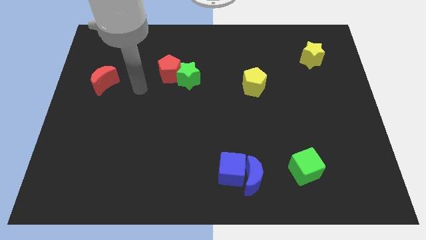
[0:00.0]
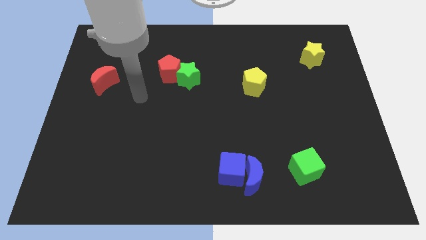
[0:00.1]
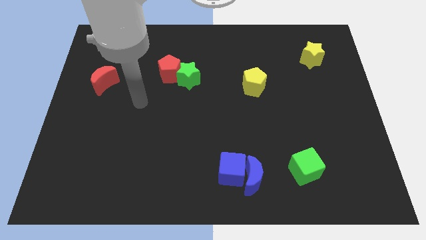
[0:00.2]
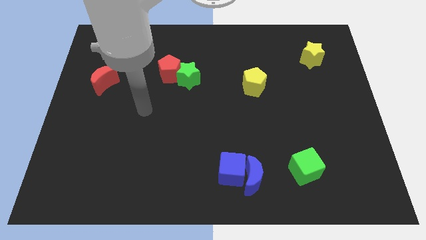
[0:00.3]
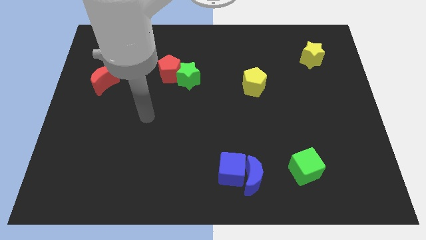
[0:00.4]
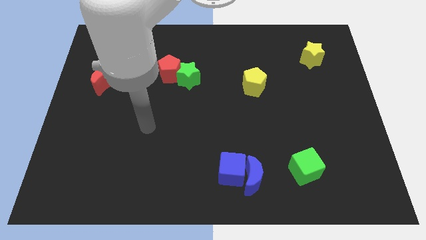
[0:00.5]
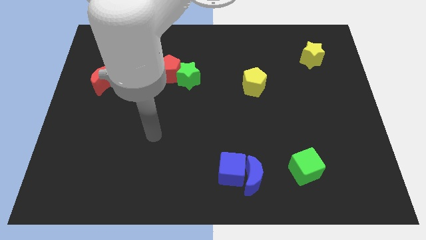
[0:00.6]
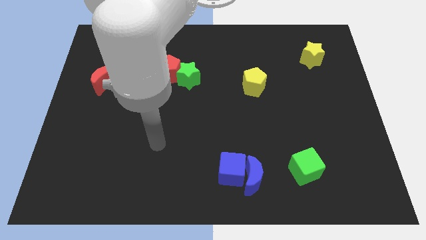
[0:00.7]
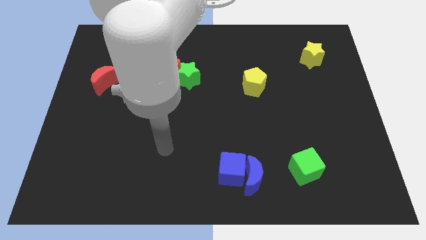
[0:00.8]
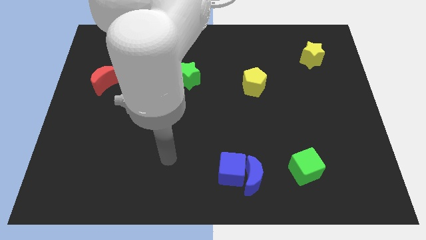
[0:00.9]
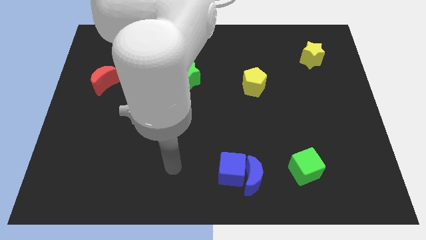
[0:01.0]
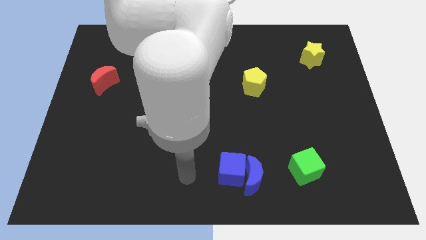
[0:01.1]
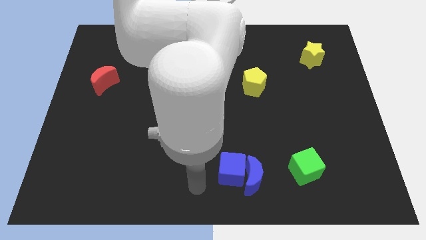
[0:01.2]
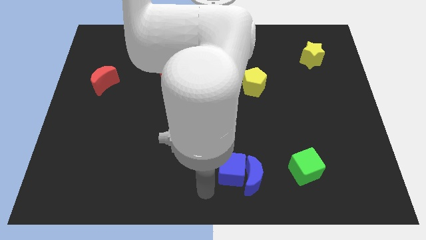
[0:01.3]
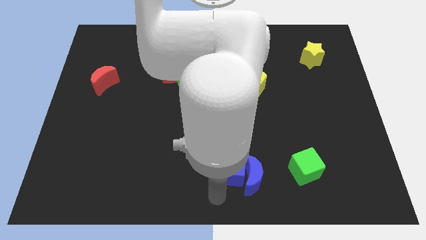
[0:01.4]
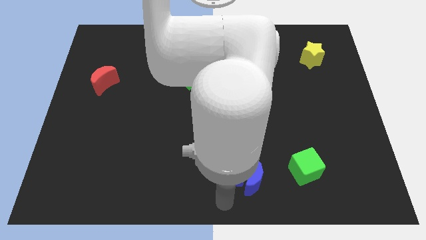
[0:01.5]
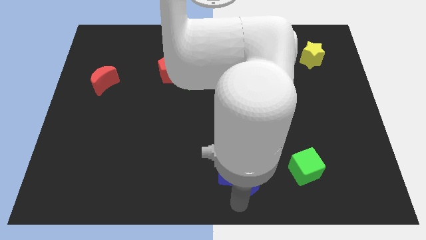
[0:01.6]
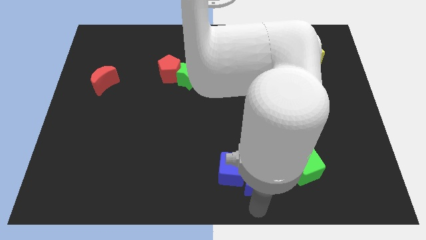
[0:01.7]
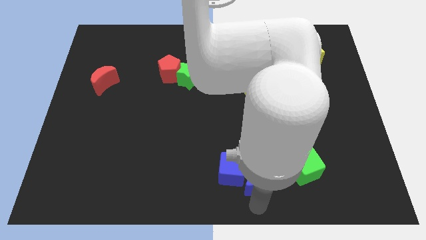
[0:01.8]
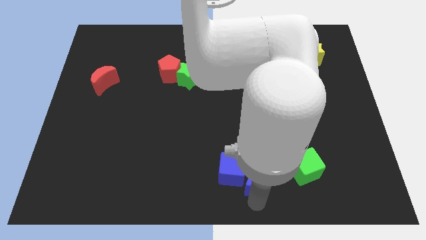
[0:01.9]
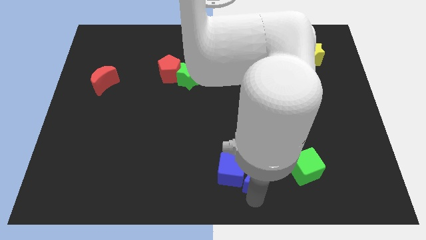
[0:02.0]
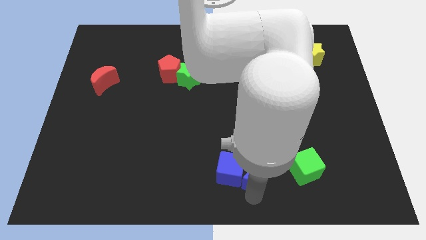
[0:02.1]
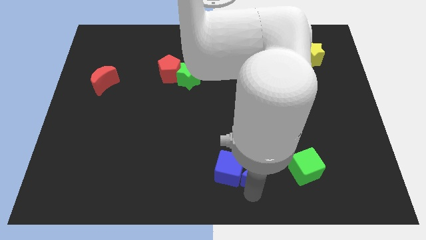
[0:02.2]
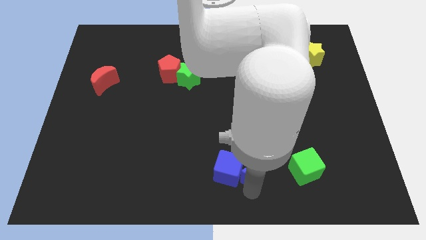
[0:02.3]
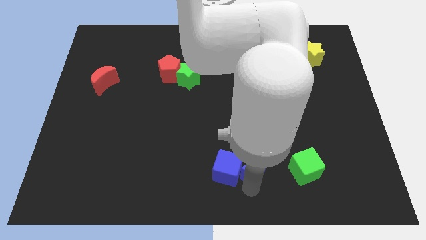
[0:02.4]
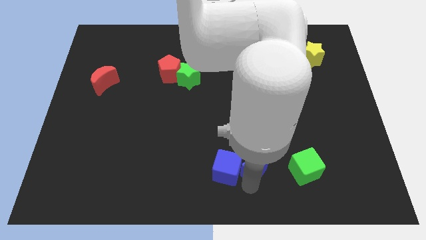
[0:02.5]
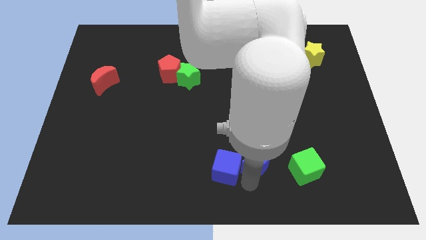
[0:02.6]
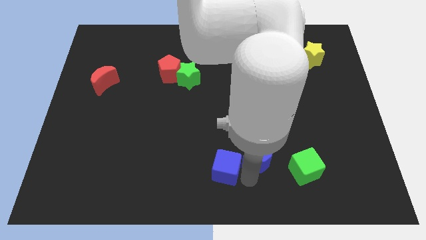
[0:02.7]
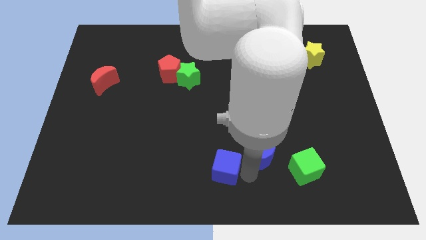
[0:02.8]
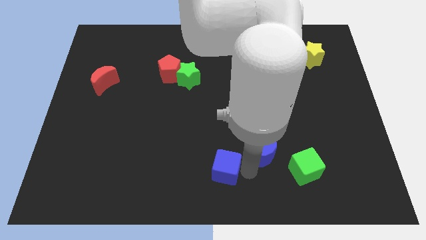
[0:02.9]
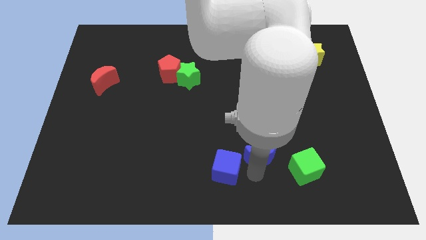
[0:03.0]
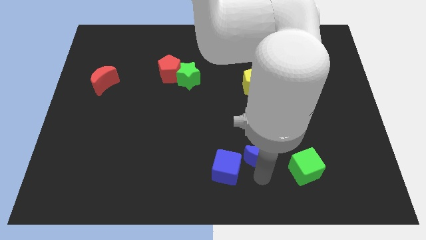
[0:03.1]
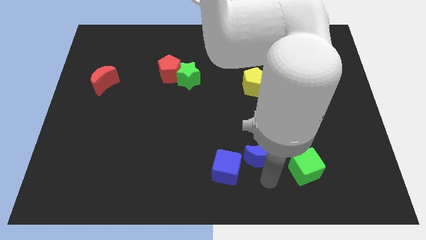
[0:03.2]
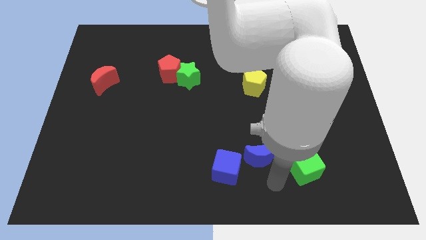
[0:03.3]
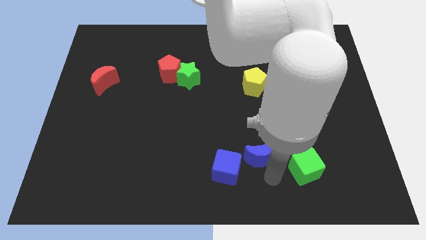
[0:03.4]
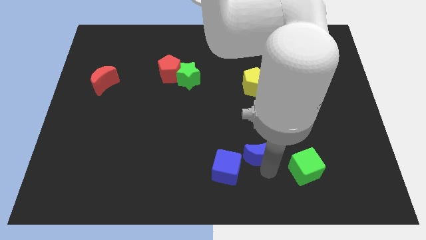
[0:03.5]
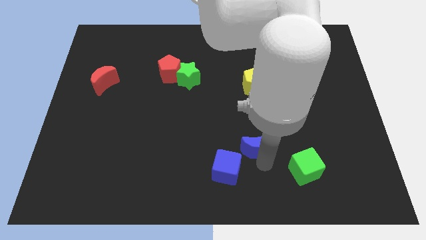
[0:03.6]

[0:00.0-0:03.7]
slide the blue moon a little bit up

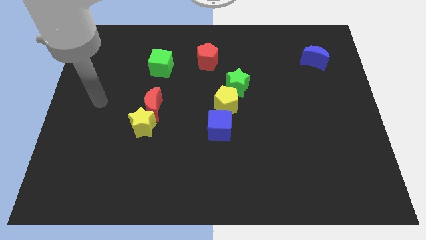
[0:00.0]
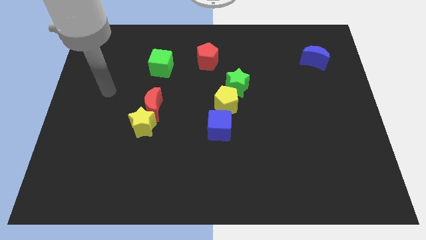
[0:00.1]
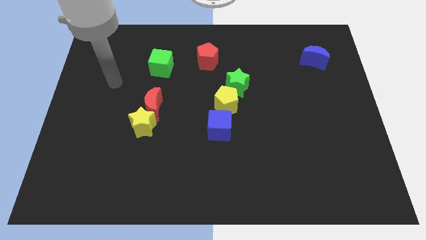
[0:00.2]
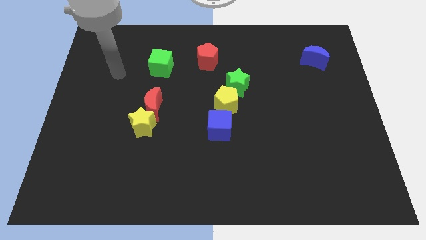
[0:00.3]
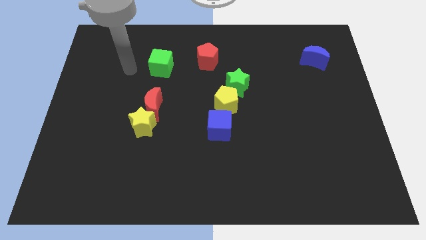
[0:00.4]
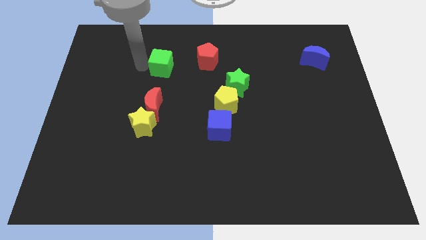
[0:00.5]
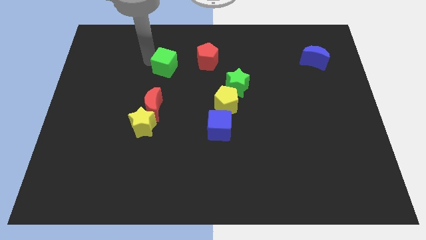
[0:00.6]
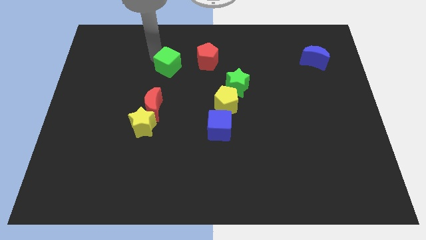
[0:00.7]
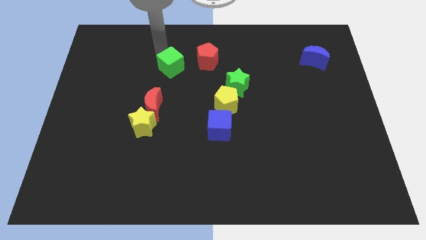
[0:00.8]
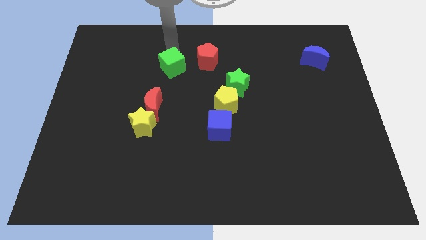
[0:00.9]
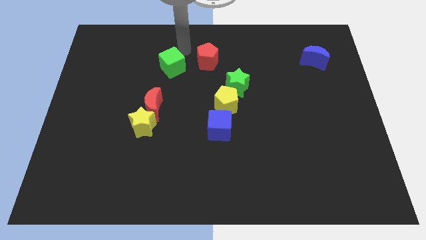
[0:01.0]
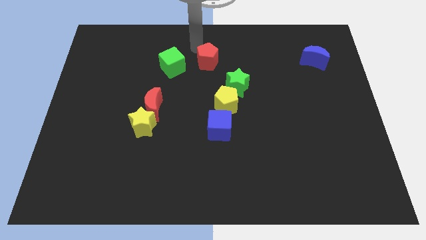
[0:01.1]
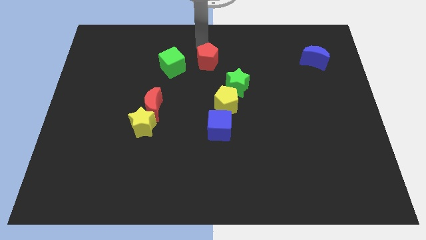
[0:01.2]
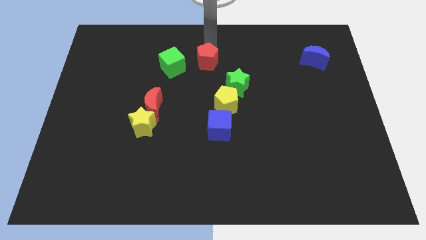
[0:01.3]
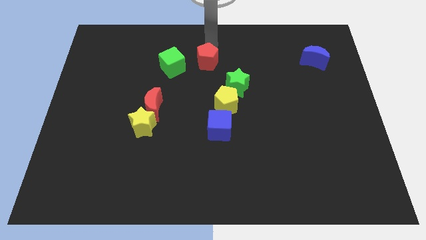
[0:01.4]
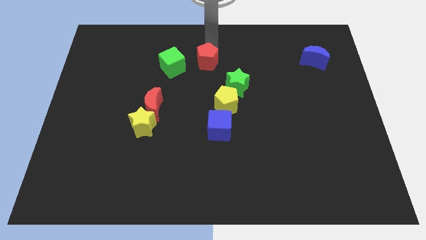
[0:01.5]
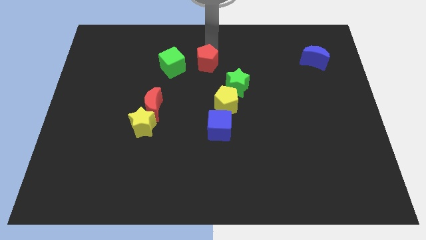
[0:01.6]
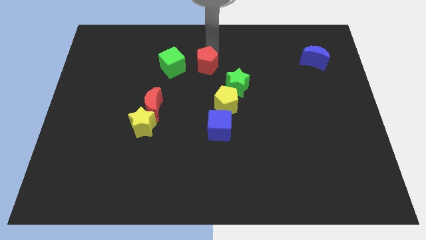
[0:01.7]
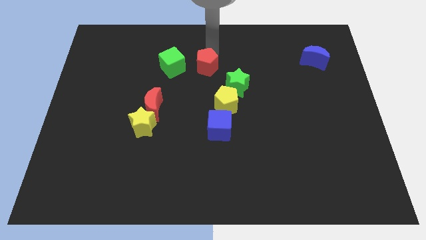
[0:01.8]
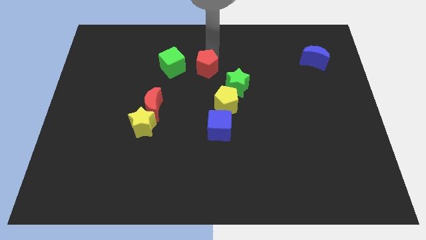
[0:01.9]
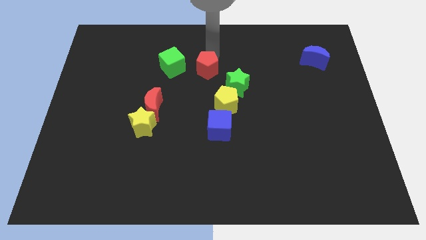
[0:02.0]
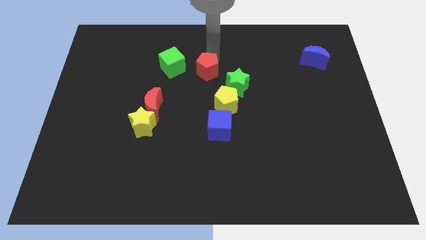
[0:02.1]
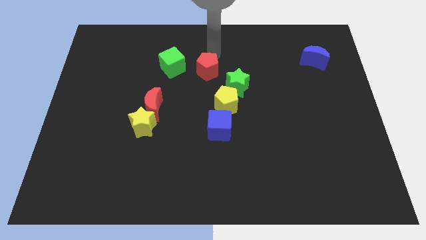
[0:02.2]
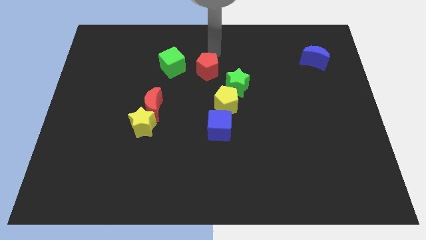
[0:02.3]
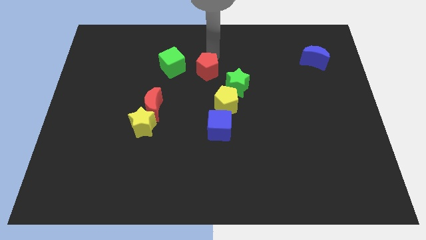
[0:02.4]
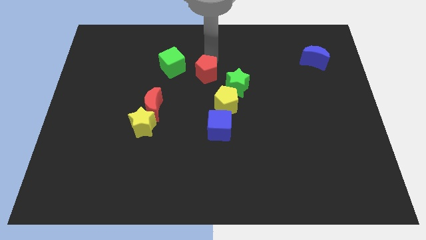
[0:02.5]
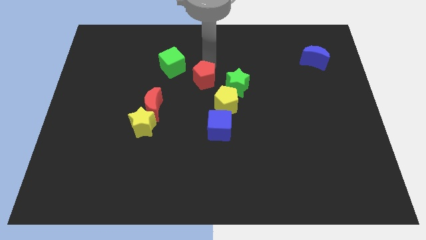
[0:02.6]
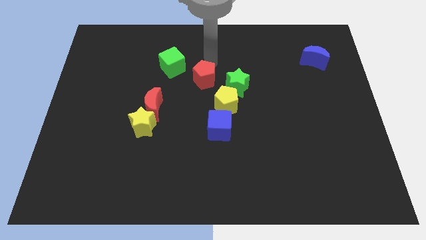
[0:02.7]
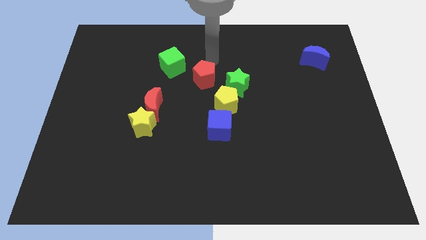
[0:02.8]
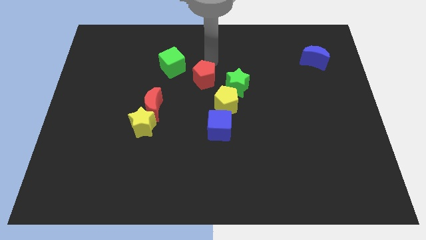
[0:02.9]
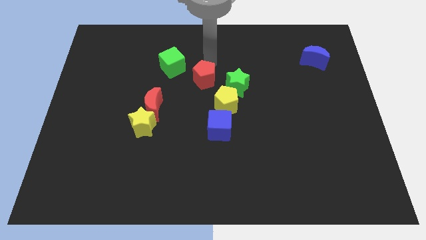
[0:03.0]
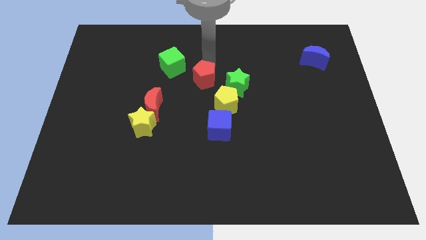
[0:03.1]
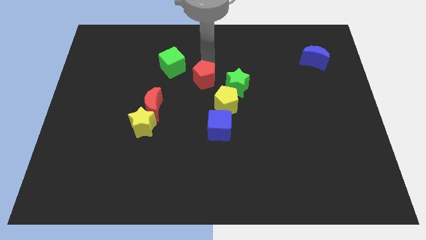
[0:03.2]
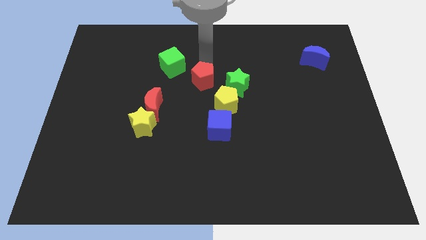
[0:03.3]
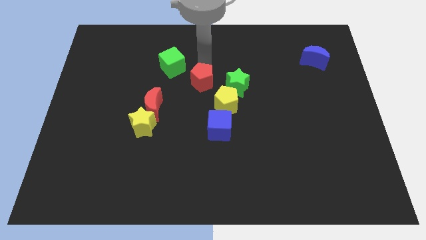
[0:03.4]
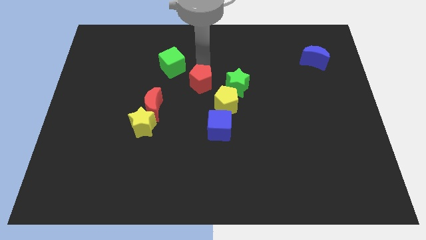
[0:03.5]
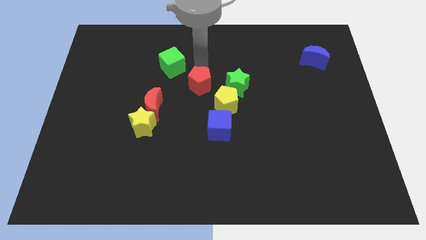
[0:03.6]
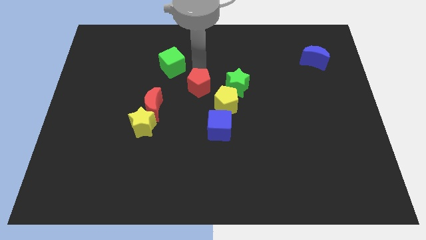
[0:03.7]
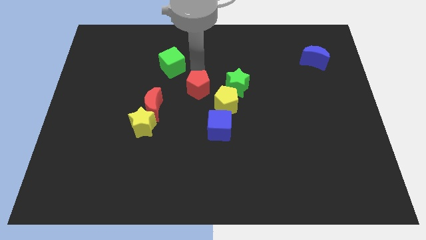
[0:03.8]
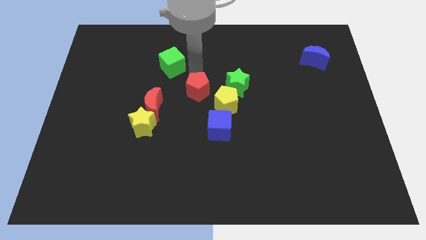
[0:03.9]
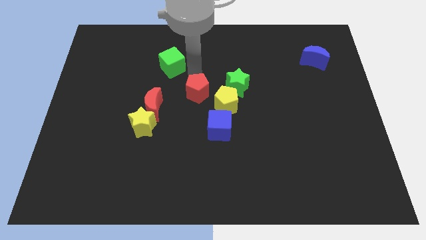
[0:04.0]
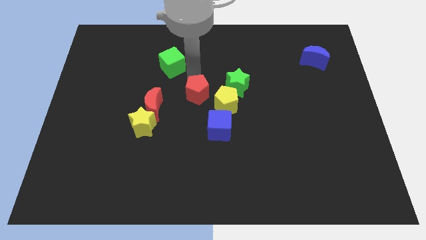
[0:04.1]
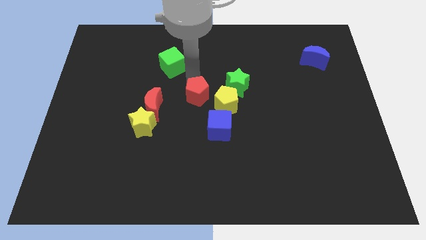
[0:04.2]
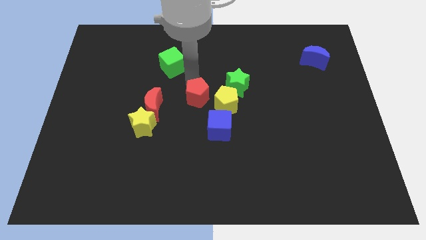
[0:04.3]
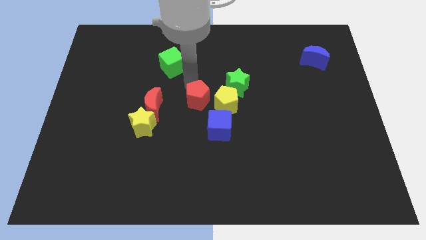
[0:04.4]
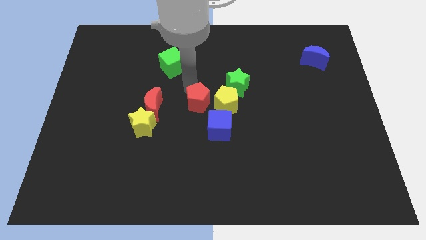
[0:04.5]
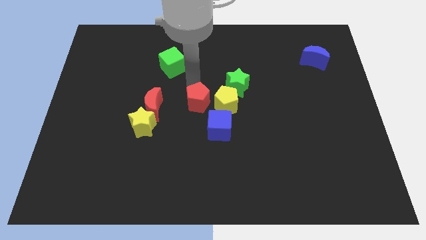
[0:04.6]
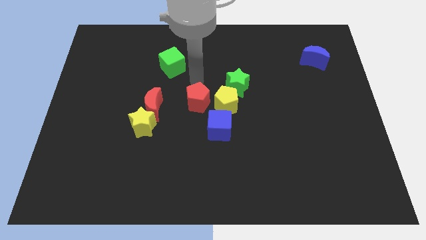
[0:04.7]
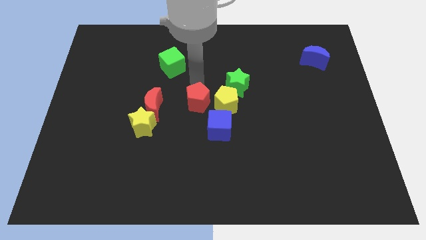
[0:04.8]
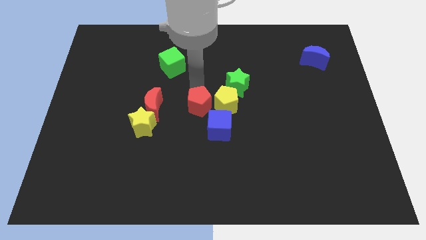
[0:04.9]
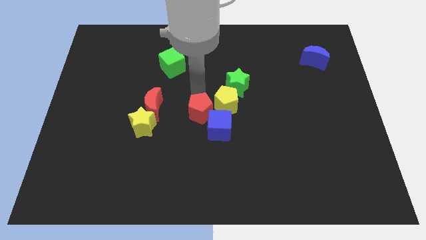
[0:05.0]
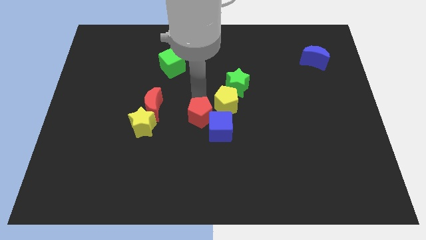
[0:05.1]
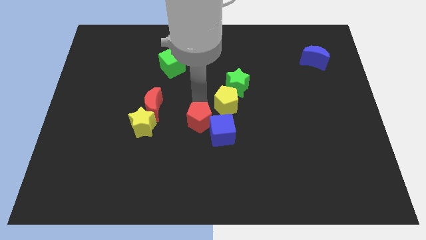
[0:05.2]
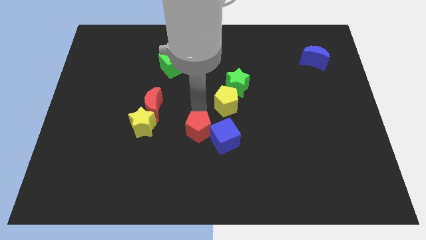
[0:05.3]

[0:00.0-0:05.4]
slide the red pentagon downwards
